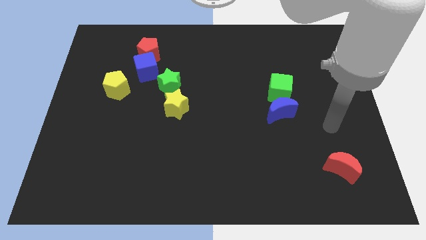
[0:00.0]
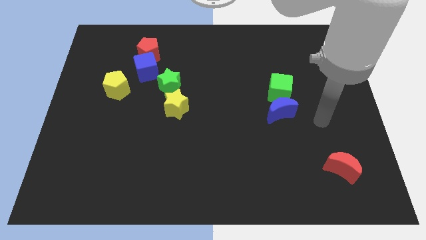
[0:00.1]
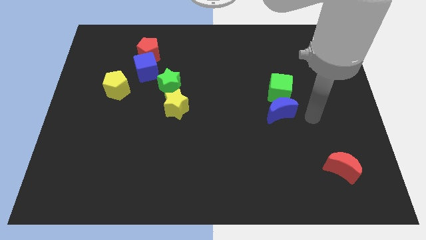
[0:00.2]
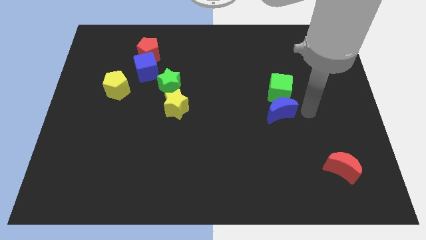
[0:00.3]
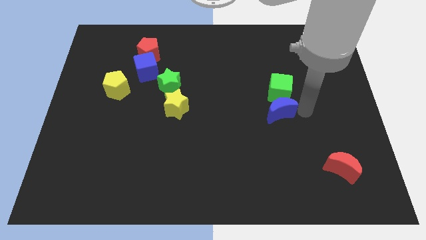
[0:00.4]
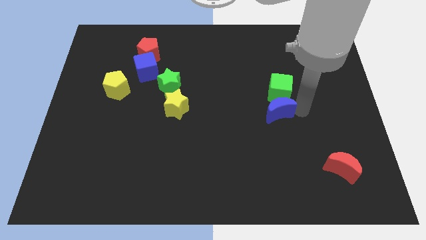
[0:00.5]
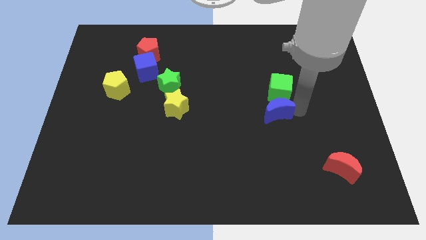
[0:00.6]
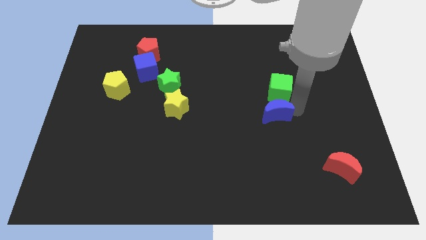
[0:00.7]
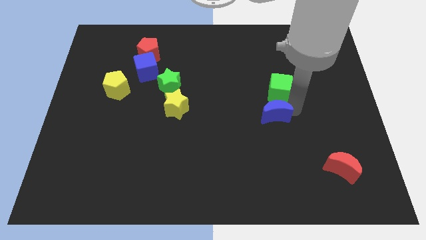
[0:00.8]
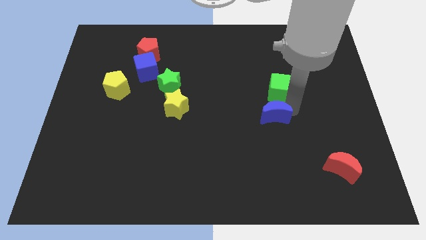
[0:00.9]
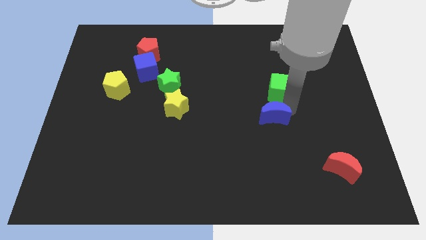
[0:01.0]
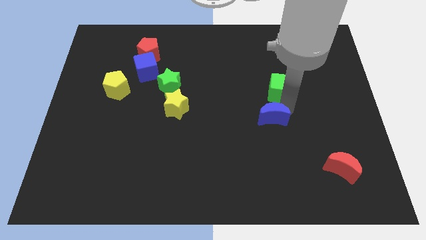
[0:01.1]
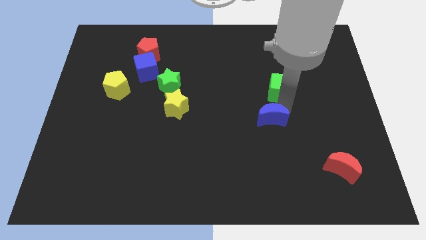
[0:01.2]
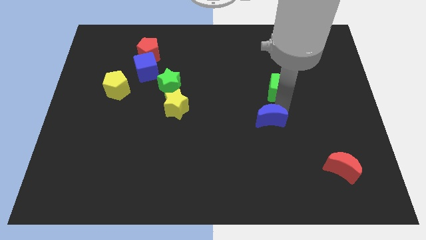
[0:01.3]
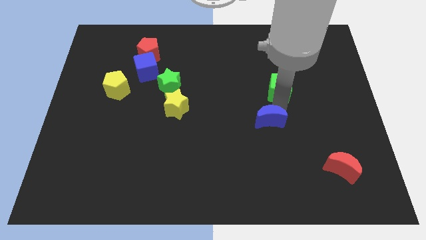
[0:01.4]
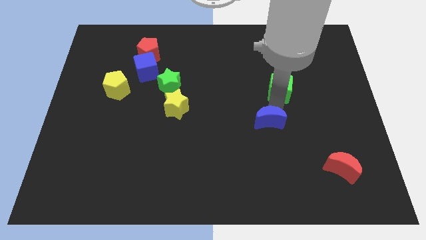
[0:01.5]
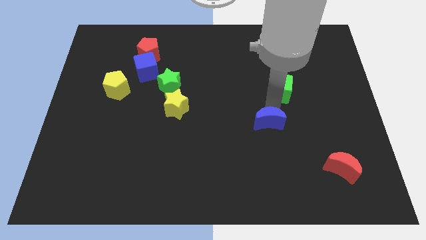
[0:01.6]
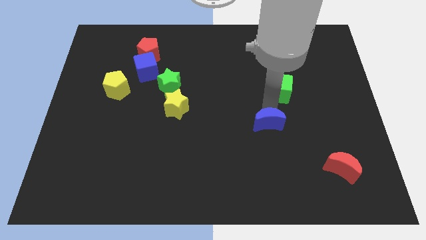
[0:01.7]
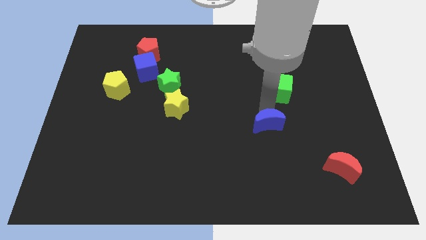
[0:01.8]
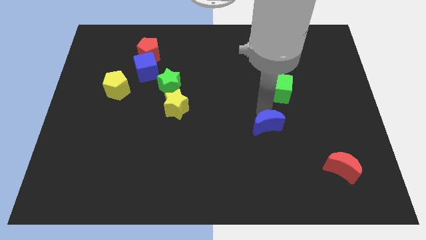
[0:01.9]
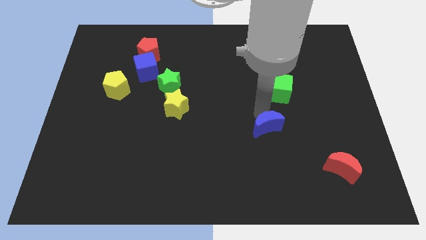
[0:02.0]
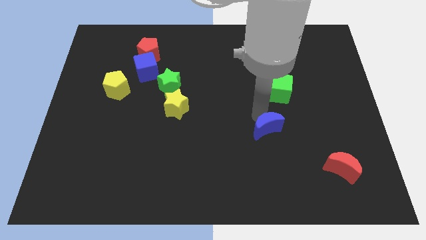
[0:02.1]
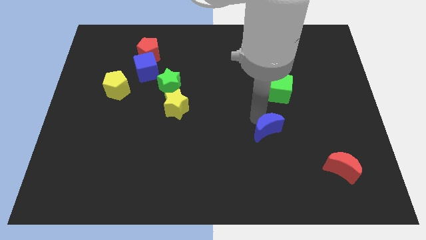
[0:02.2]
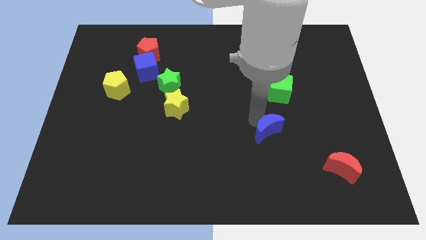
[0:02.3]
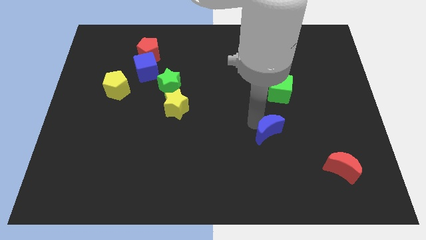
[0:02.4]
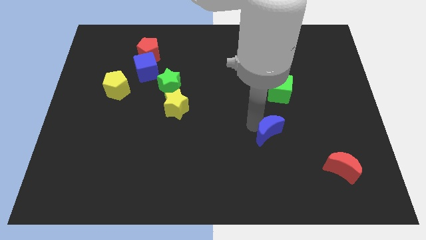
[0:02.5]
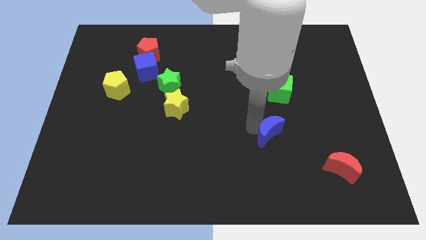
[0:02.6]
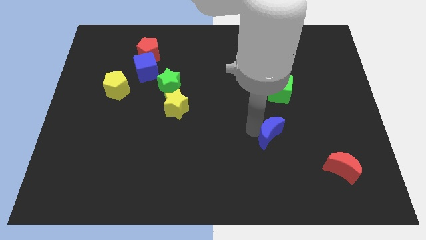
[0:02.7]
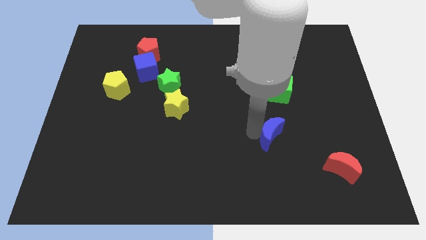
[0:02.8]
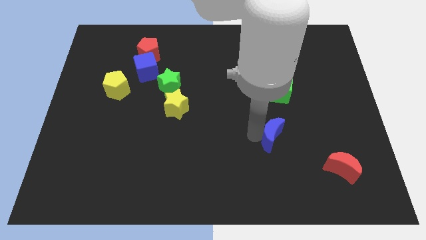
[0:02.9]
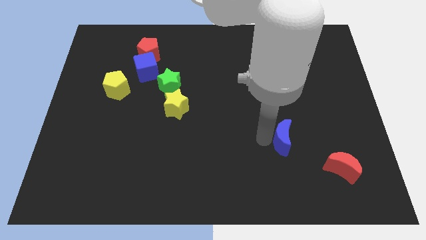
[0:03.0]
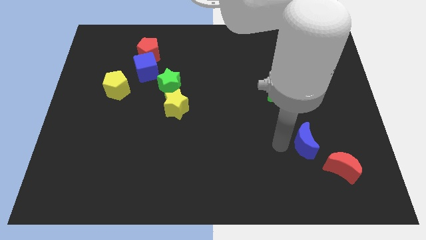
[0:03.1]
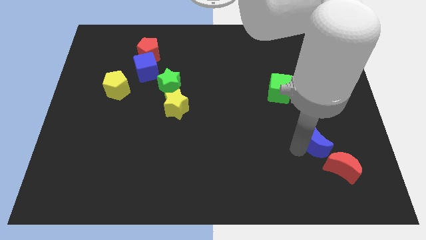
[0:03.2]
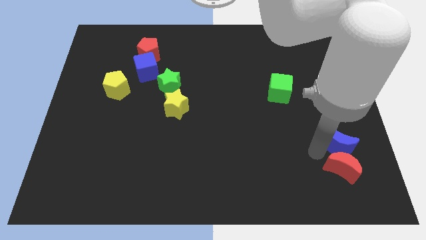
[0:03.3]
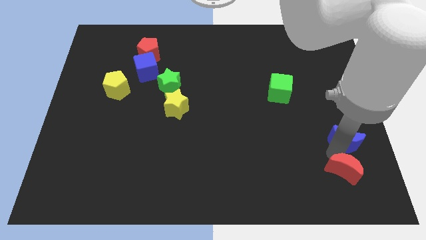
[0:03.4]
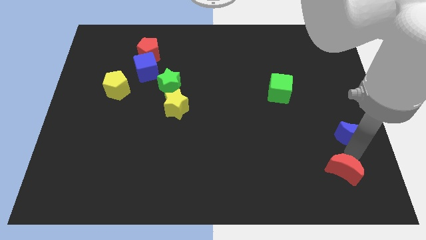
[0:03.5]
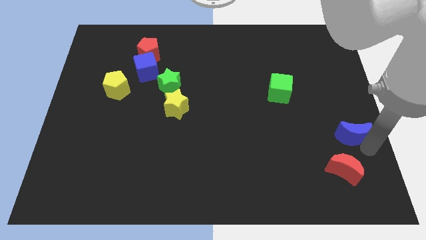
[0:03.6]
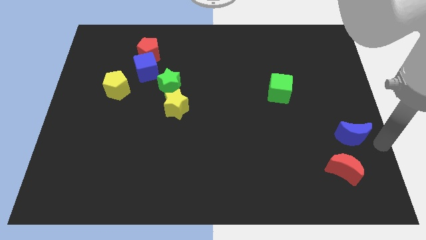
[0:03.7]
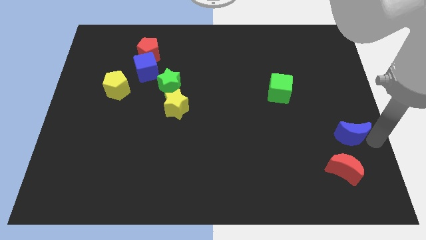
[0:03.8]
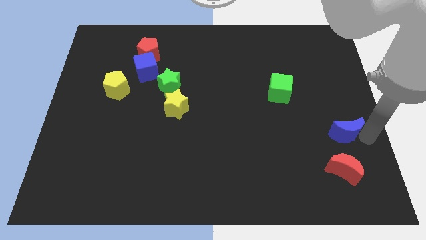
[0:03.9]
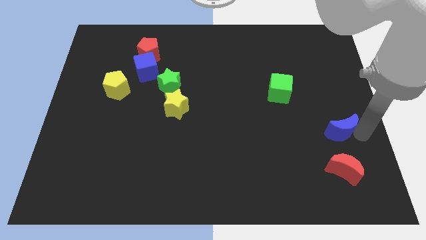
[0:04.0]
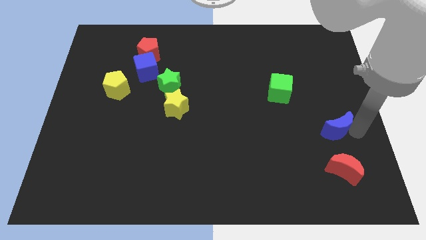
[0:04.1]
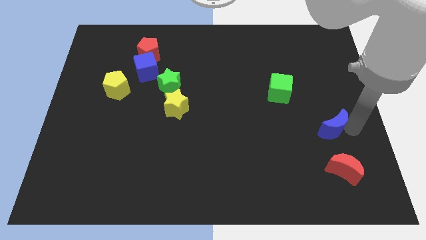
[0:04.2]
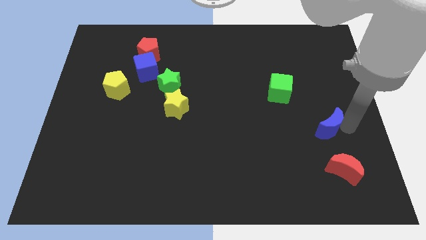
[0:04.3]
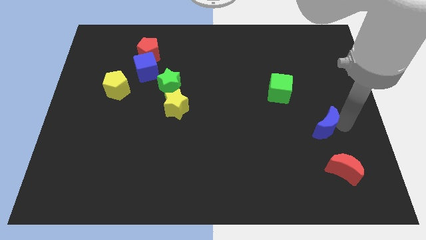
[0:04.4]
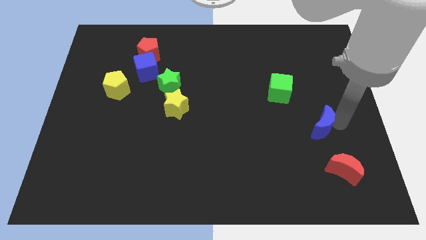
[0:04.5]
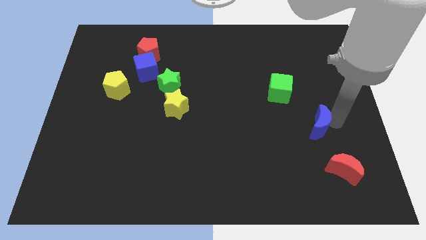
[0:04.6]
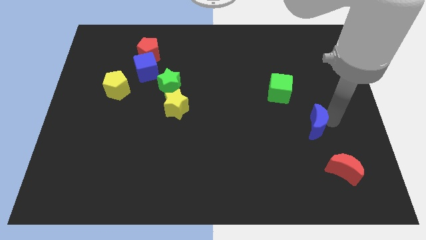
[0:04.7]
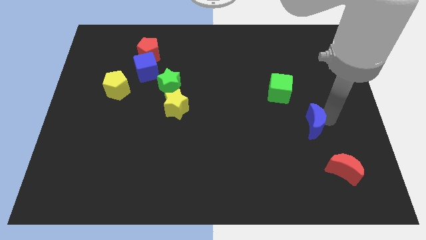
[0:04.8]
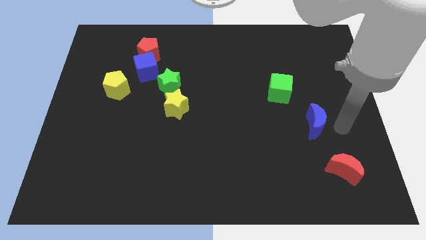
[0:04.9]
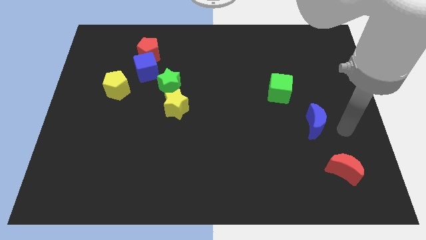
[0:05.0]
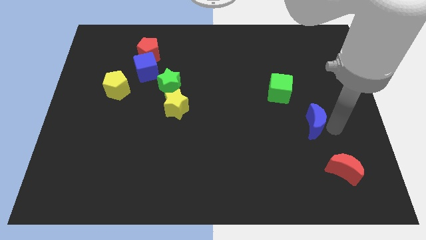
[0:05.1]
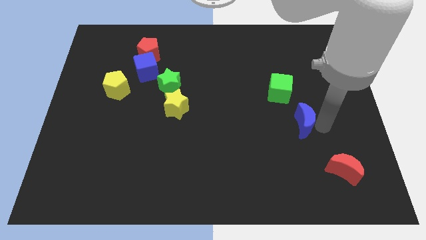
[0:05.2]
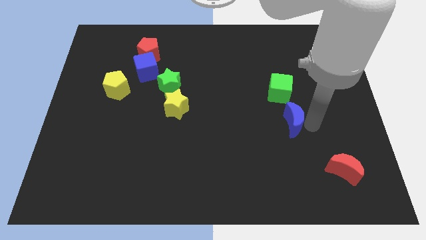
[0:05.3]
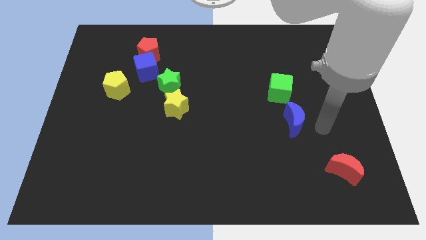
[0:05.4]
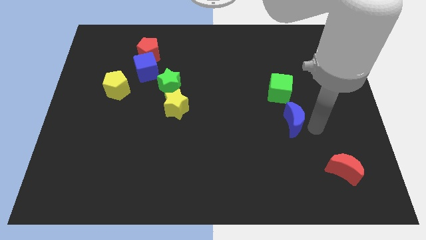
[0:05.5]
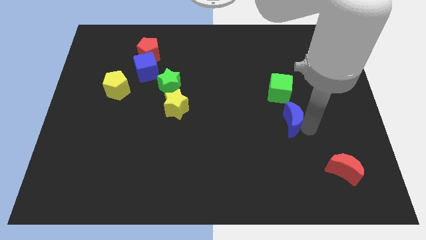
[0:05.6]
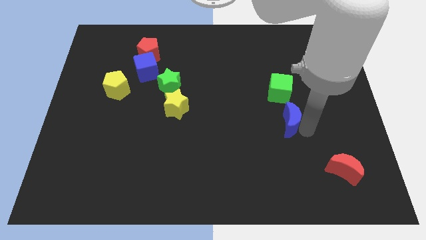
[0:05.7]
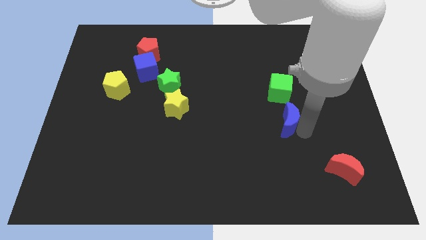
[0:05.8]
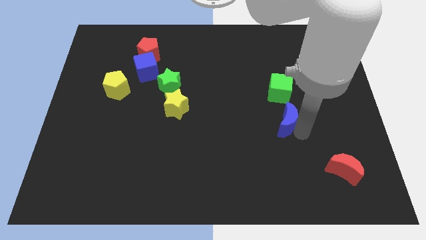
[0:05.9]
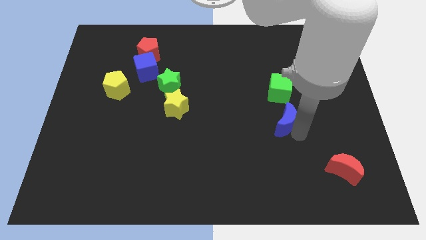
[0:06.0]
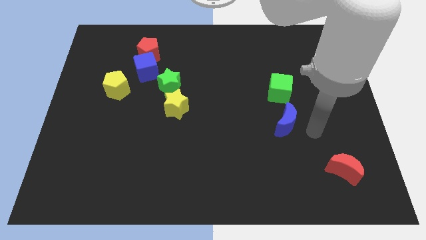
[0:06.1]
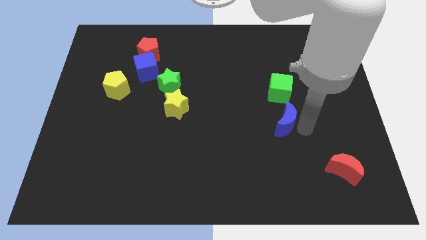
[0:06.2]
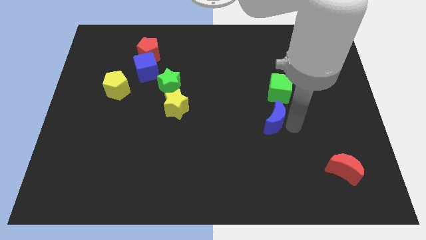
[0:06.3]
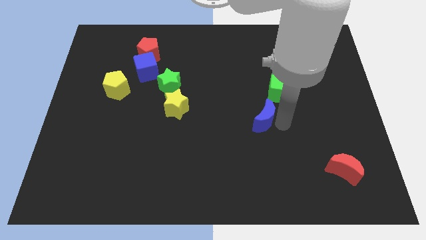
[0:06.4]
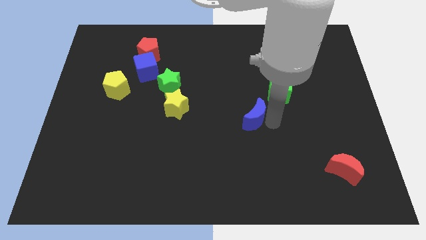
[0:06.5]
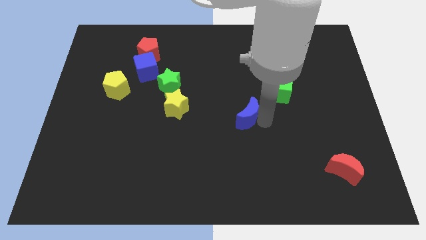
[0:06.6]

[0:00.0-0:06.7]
slightly slide the blue moon to the left

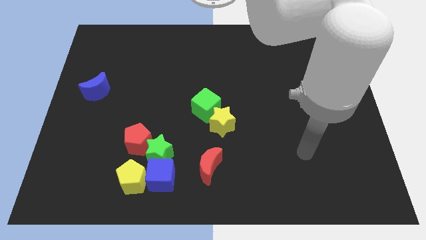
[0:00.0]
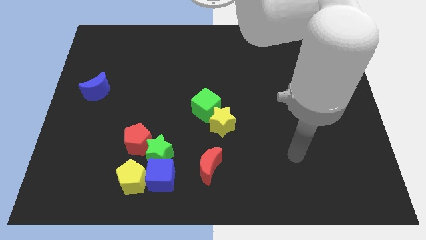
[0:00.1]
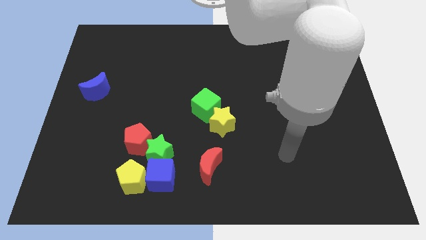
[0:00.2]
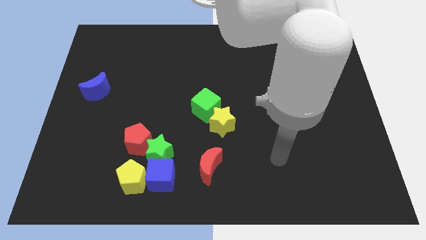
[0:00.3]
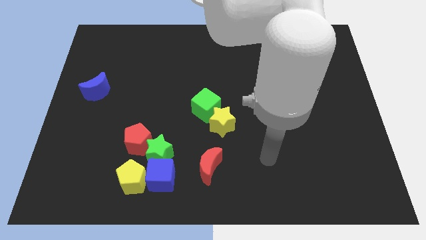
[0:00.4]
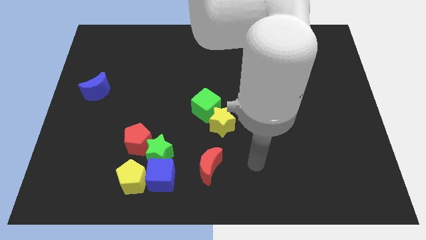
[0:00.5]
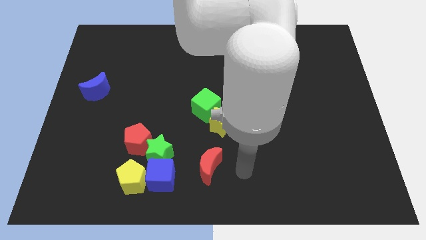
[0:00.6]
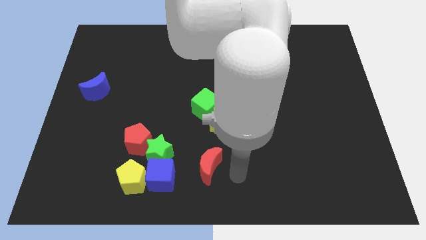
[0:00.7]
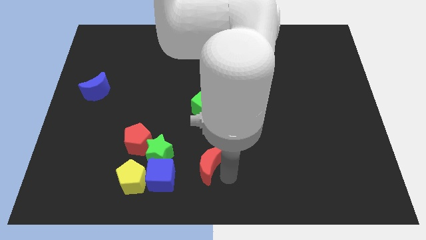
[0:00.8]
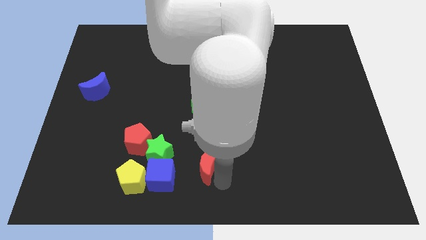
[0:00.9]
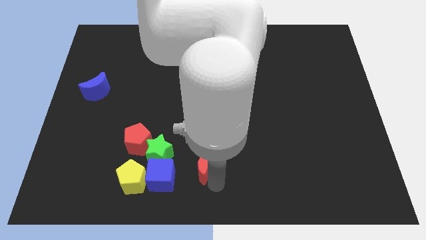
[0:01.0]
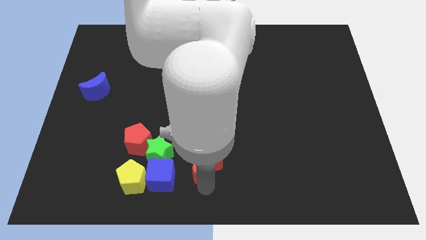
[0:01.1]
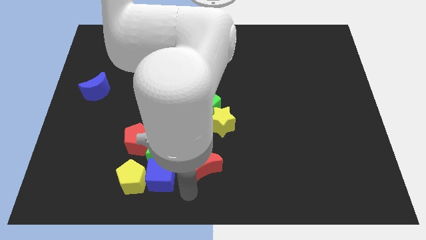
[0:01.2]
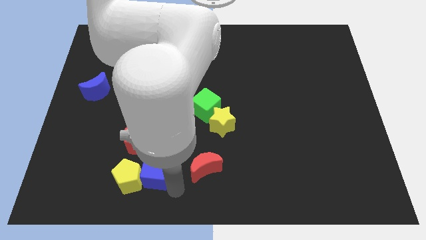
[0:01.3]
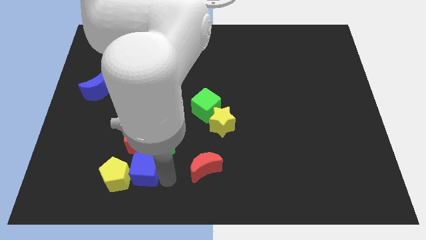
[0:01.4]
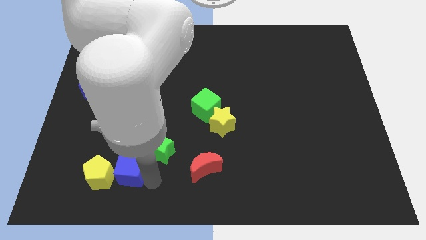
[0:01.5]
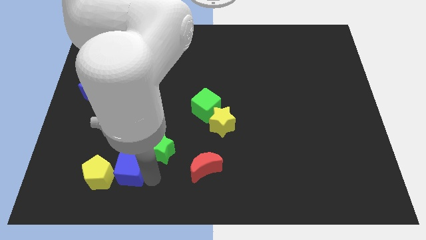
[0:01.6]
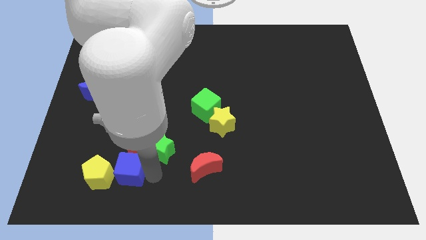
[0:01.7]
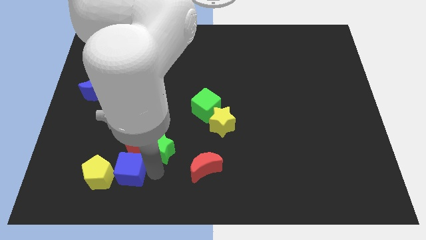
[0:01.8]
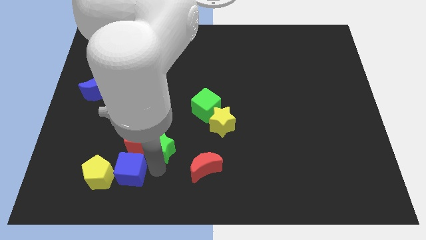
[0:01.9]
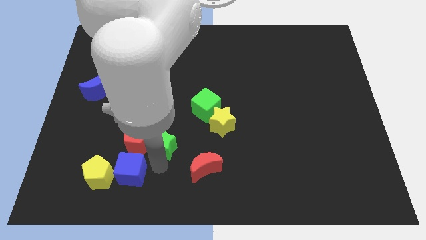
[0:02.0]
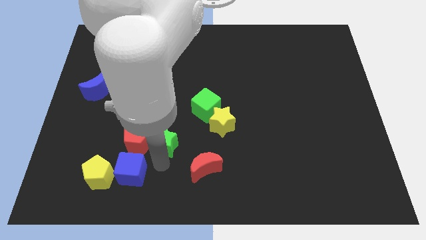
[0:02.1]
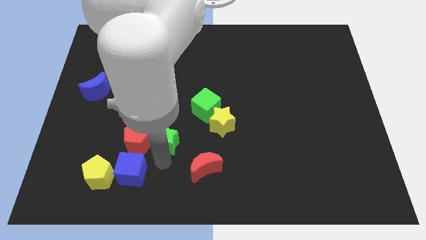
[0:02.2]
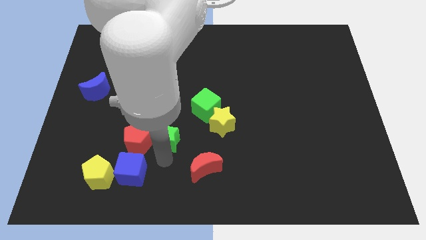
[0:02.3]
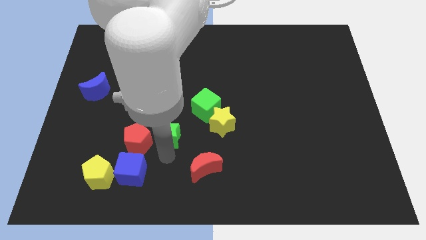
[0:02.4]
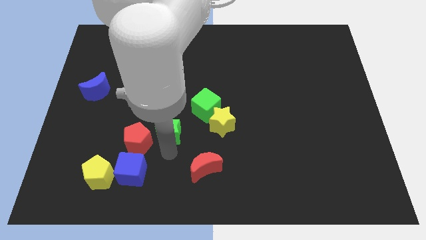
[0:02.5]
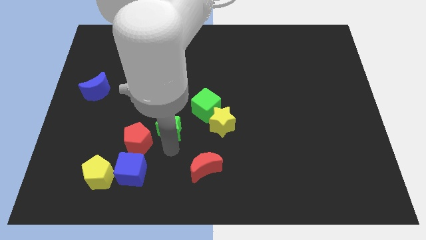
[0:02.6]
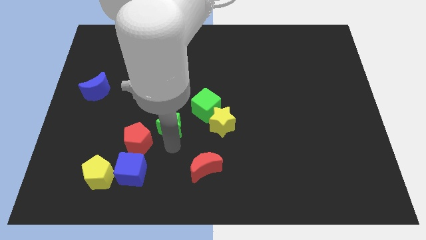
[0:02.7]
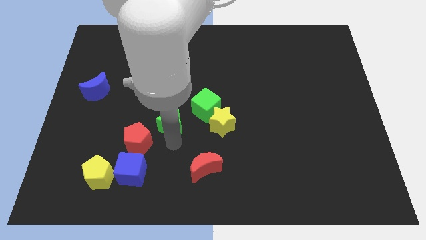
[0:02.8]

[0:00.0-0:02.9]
push the green star a little bit up
